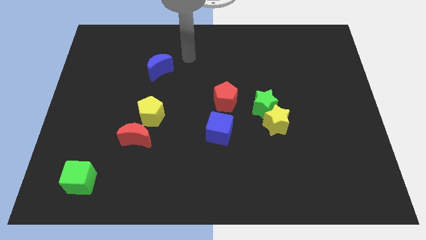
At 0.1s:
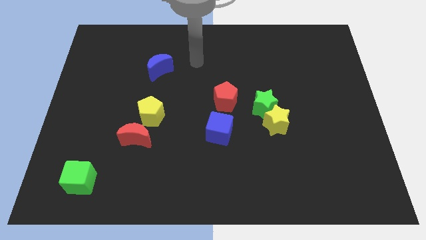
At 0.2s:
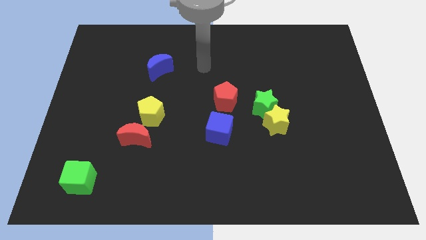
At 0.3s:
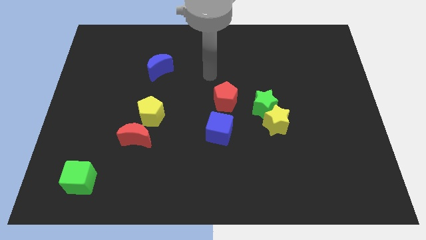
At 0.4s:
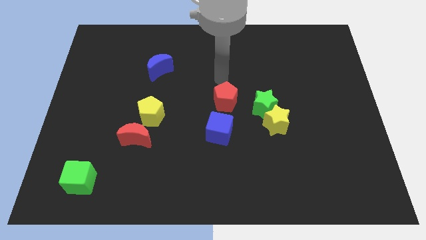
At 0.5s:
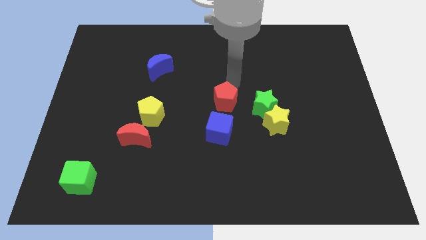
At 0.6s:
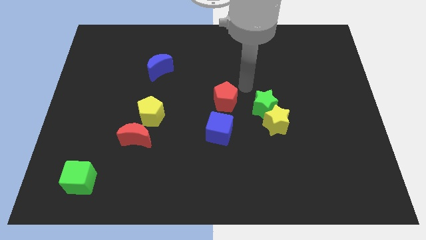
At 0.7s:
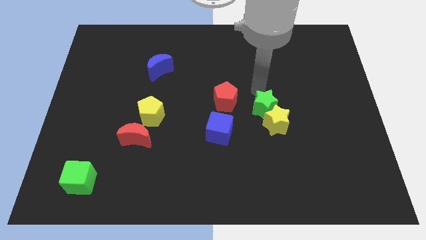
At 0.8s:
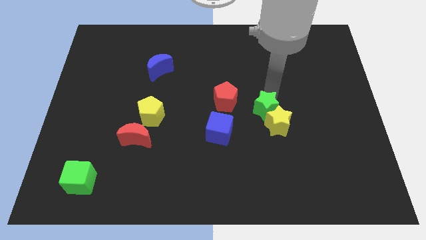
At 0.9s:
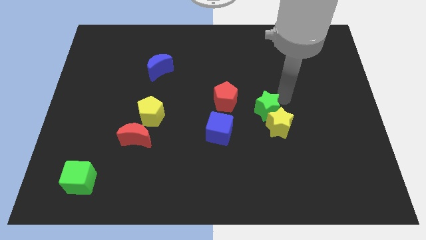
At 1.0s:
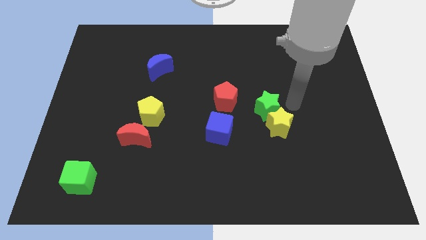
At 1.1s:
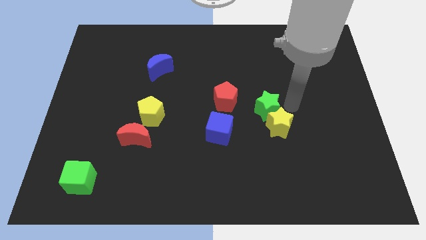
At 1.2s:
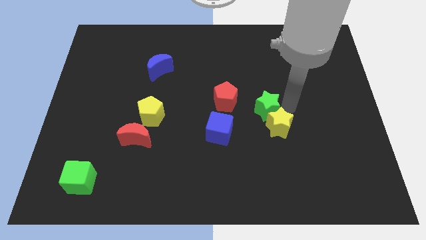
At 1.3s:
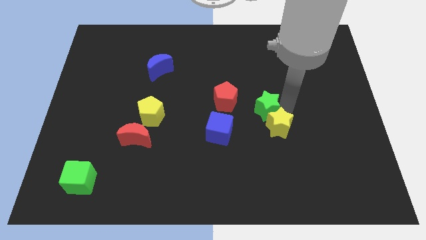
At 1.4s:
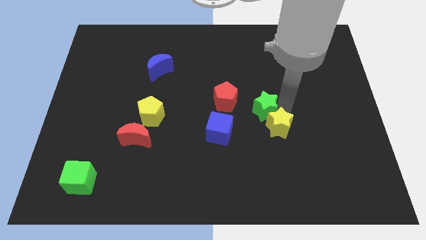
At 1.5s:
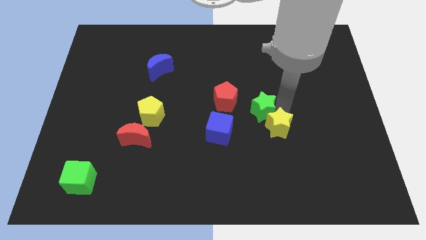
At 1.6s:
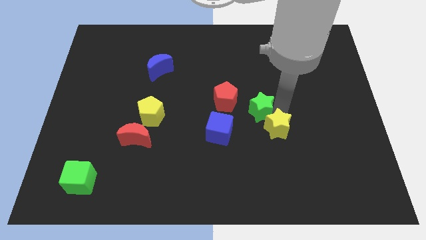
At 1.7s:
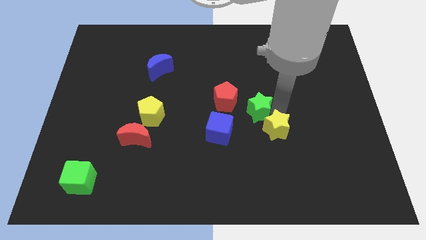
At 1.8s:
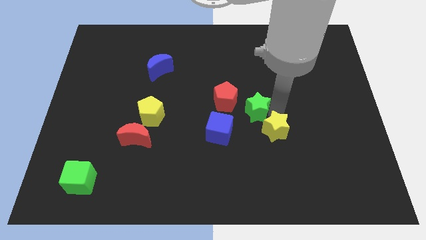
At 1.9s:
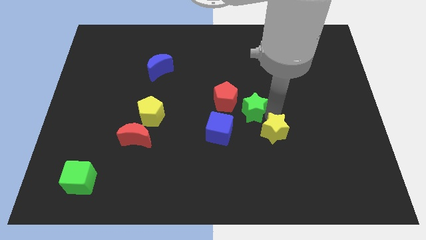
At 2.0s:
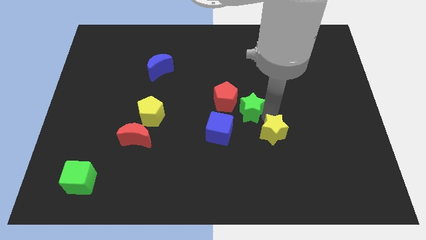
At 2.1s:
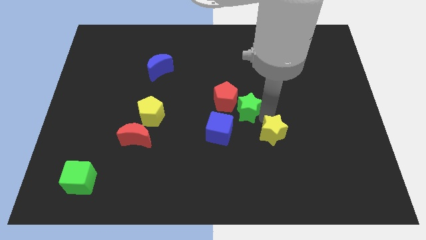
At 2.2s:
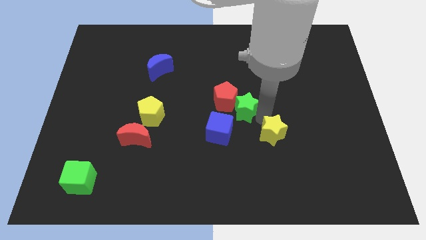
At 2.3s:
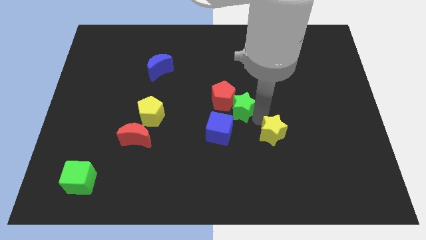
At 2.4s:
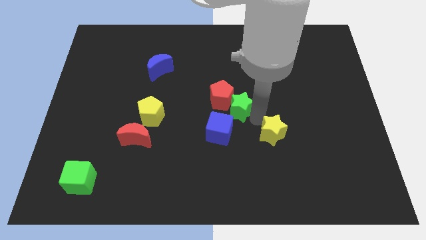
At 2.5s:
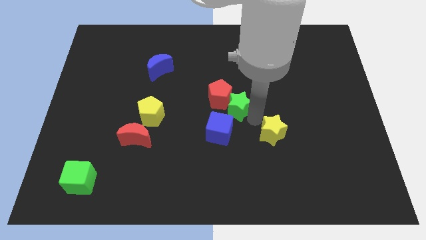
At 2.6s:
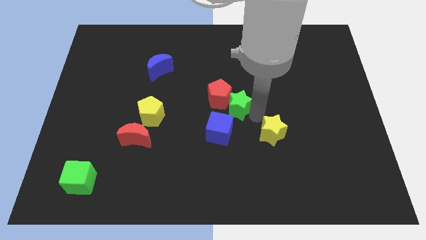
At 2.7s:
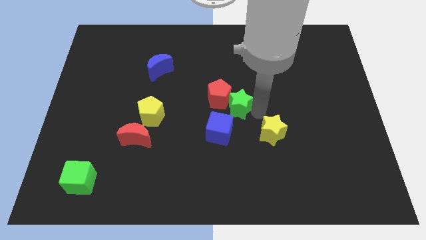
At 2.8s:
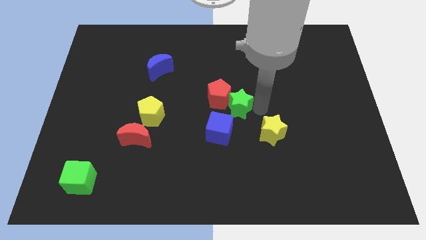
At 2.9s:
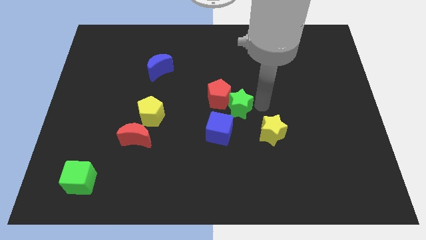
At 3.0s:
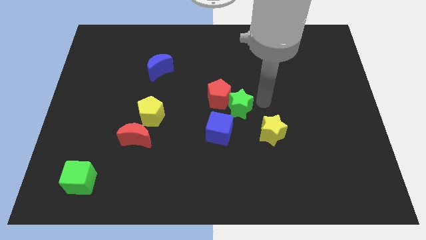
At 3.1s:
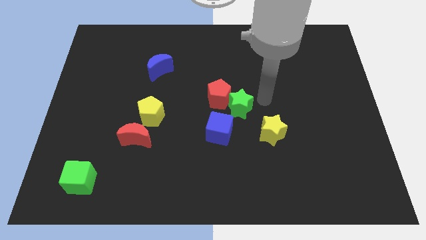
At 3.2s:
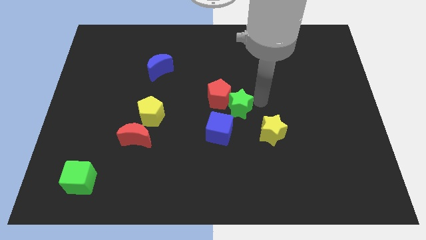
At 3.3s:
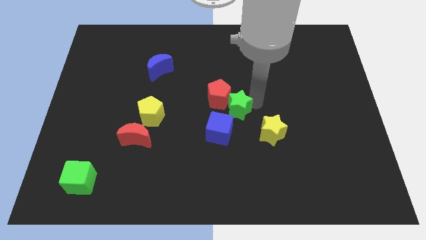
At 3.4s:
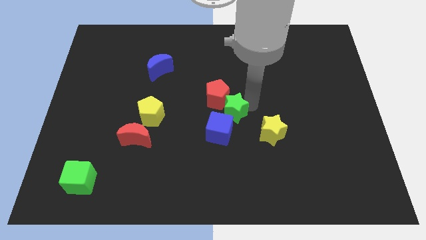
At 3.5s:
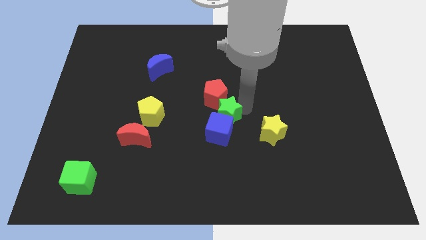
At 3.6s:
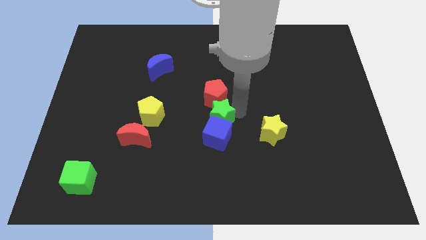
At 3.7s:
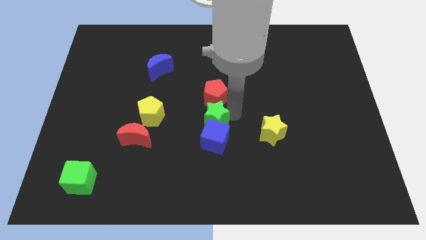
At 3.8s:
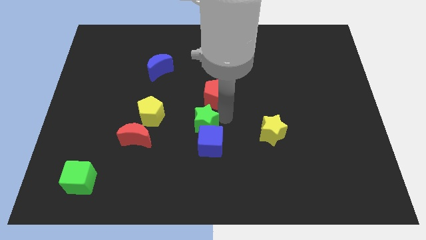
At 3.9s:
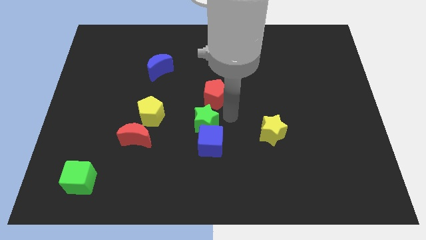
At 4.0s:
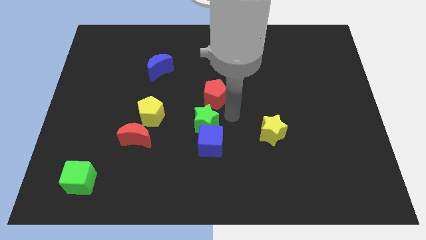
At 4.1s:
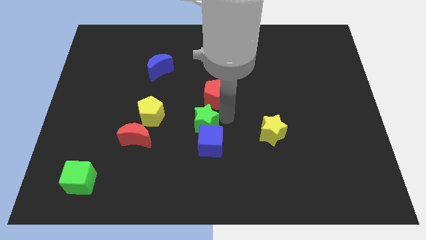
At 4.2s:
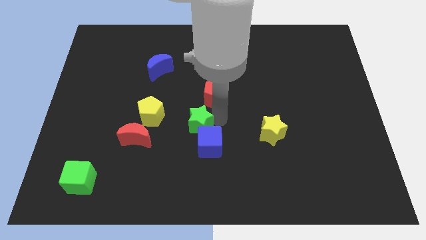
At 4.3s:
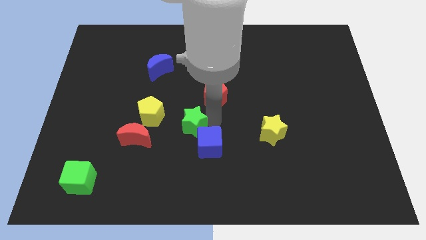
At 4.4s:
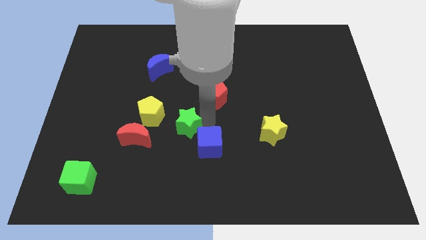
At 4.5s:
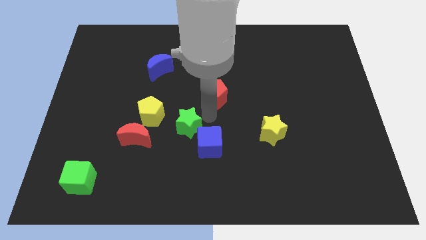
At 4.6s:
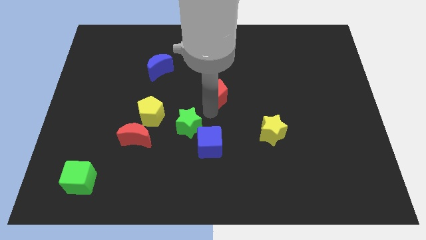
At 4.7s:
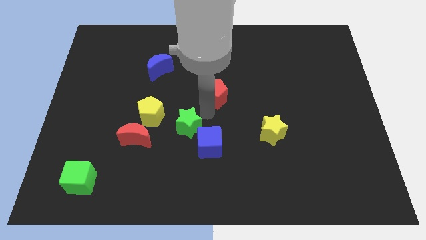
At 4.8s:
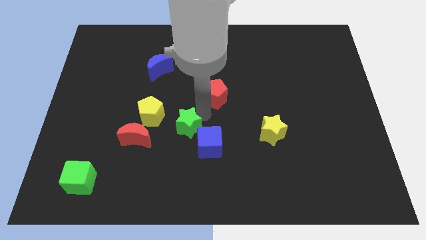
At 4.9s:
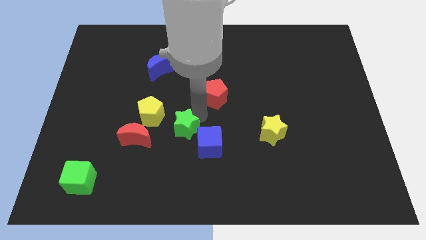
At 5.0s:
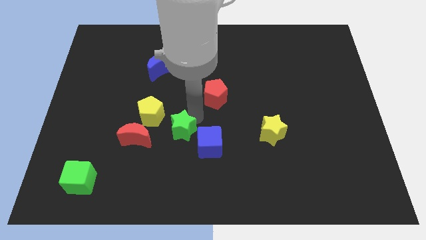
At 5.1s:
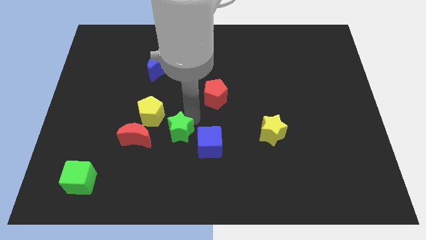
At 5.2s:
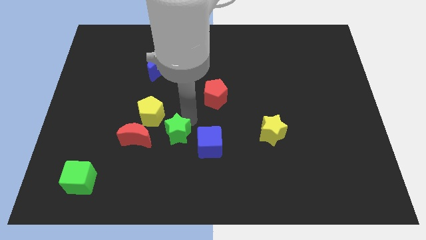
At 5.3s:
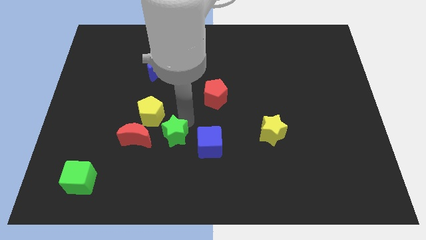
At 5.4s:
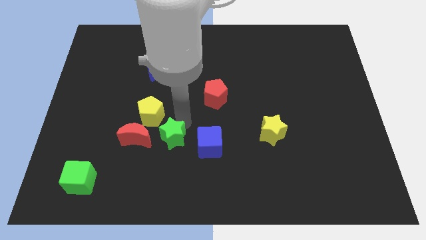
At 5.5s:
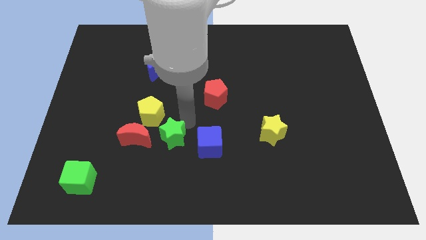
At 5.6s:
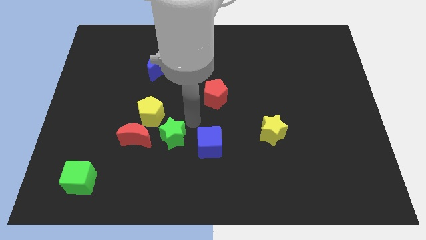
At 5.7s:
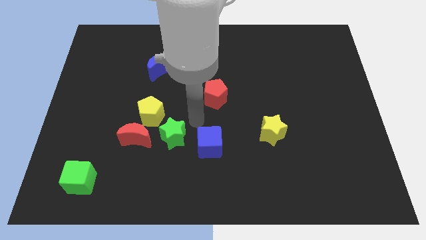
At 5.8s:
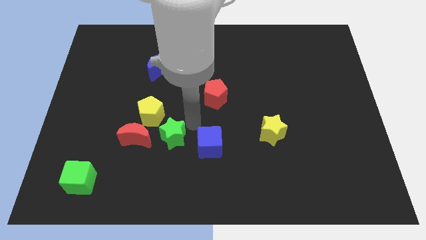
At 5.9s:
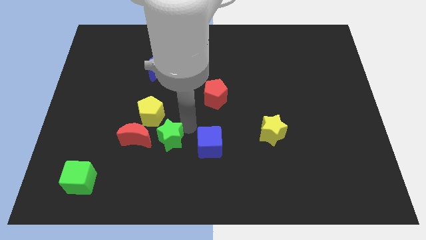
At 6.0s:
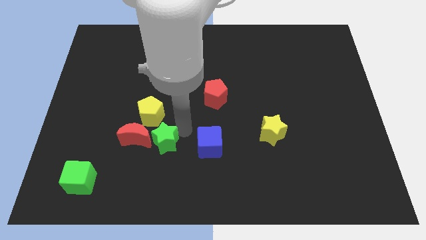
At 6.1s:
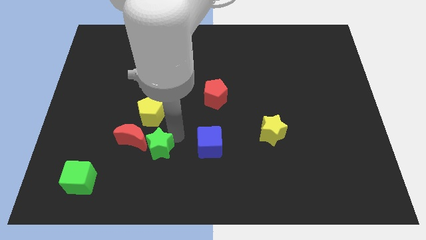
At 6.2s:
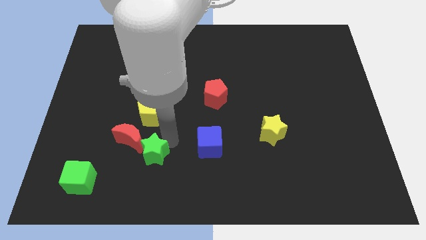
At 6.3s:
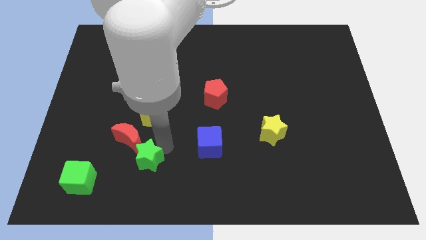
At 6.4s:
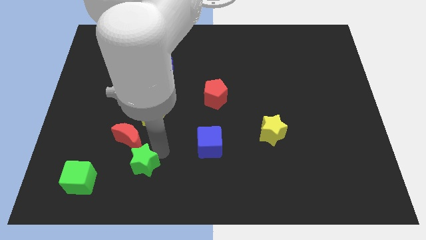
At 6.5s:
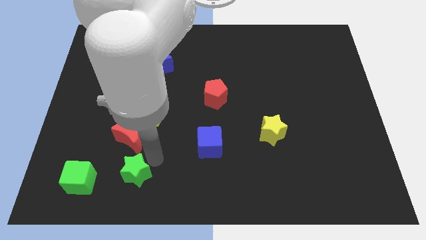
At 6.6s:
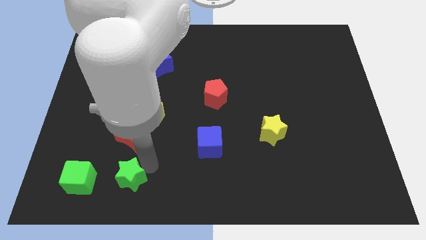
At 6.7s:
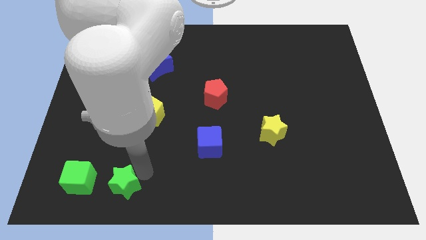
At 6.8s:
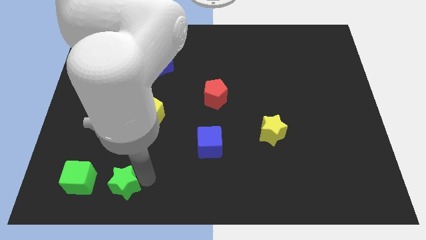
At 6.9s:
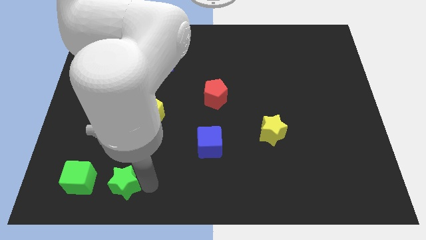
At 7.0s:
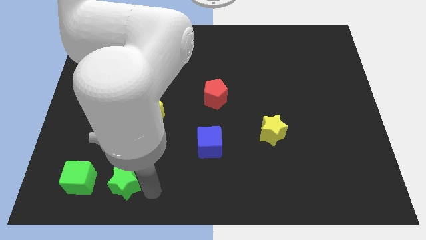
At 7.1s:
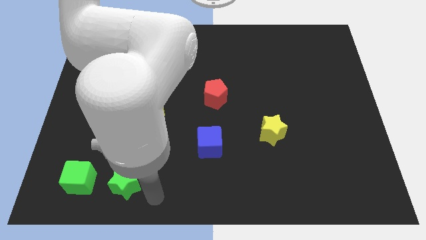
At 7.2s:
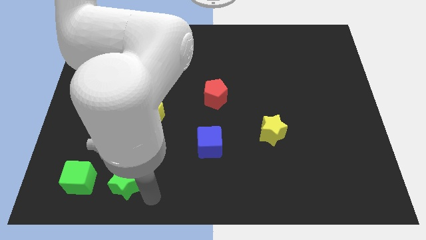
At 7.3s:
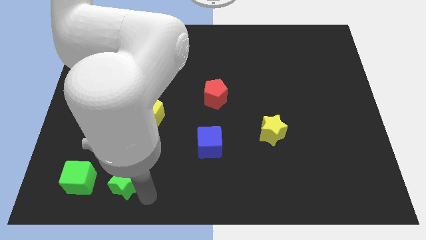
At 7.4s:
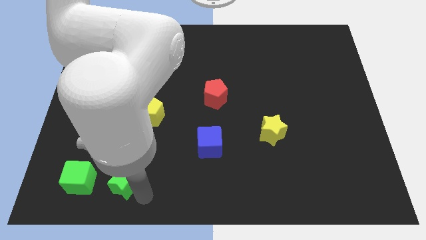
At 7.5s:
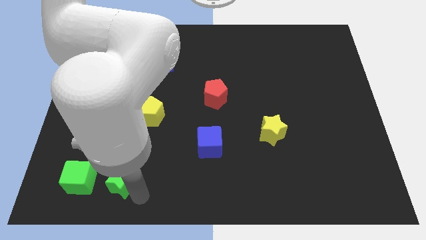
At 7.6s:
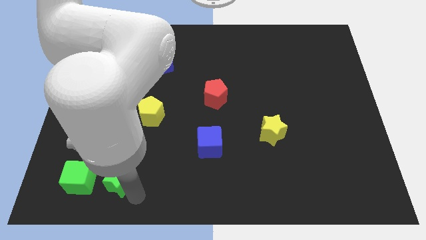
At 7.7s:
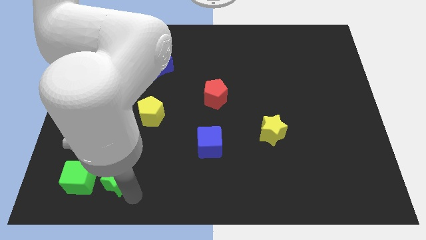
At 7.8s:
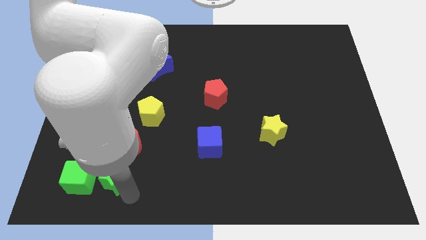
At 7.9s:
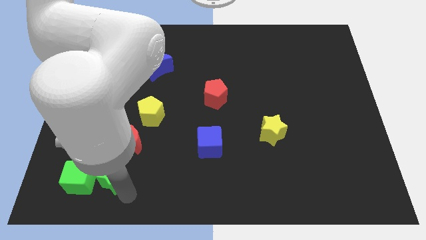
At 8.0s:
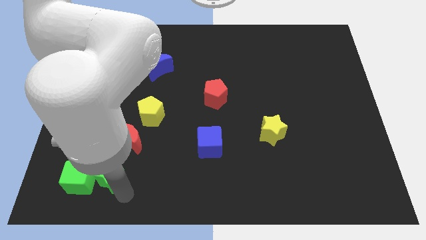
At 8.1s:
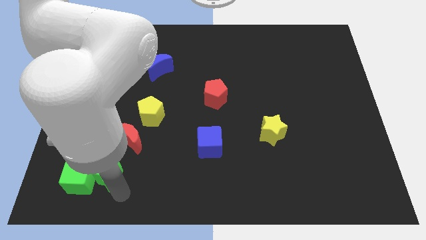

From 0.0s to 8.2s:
push the green star towards the green cube
